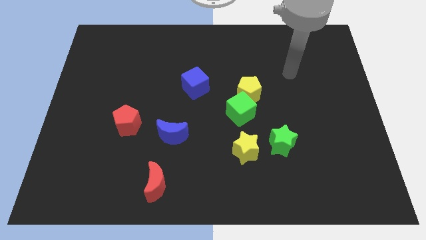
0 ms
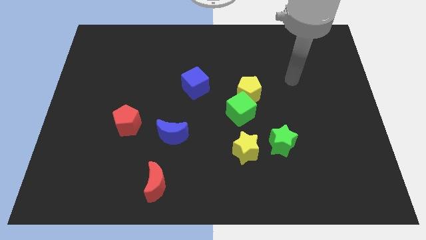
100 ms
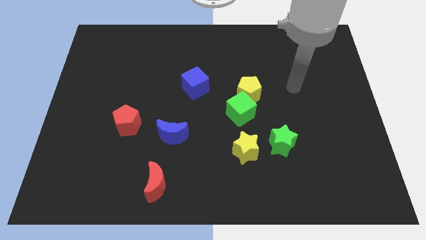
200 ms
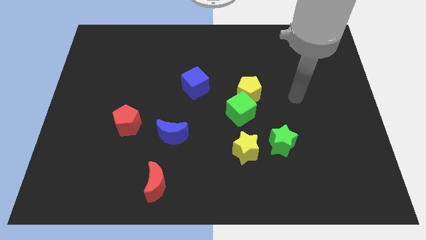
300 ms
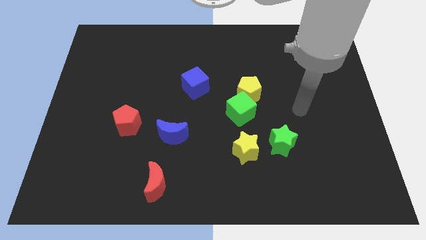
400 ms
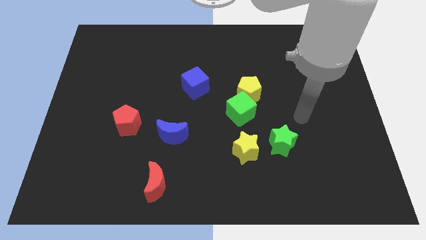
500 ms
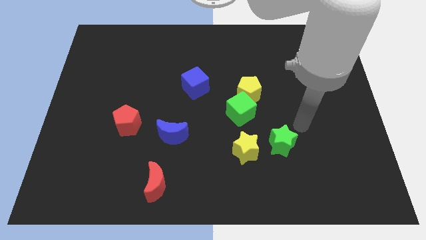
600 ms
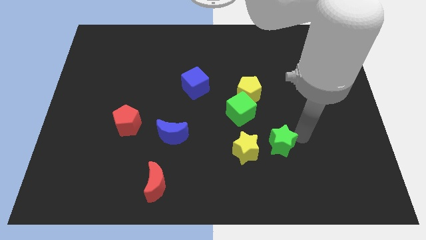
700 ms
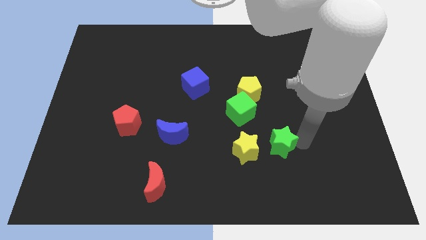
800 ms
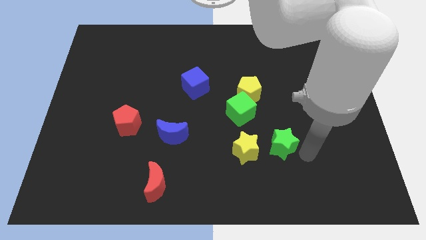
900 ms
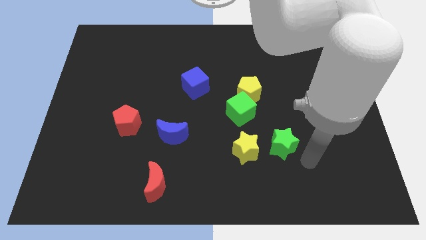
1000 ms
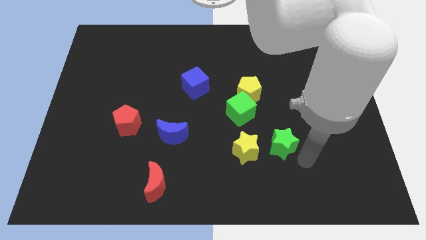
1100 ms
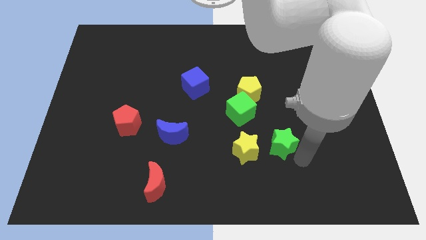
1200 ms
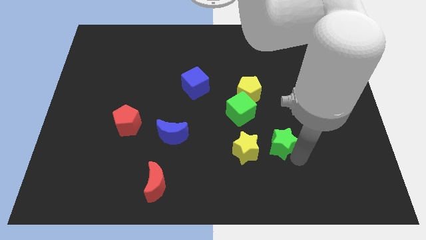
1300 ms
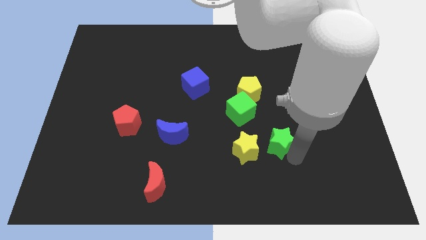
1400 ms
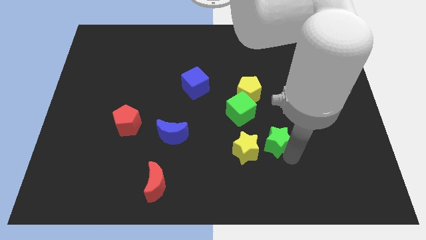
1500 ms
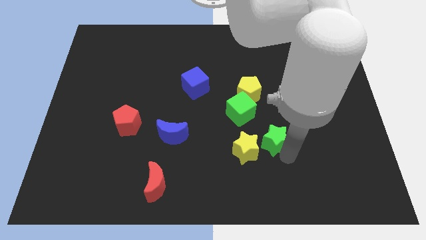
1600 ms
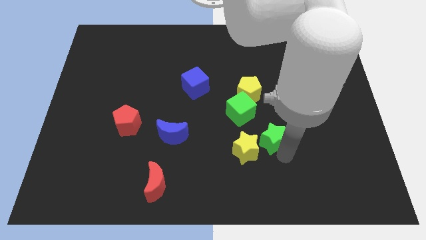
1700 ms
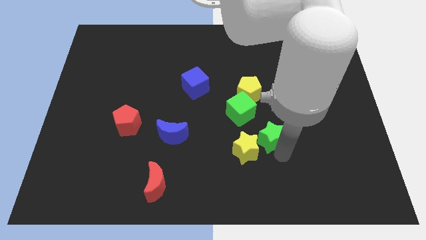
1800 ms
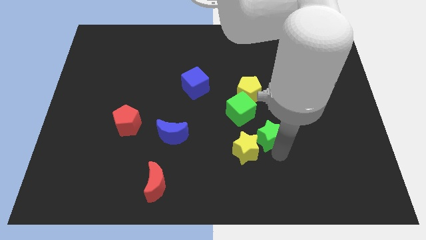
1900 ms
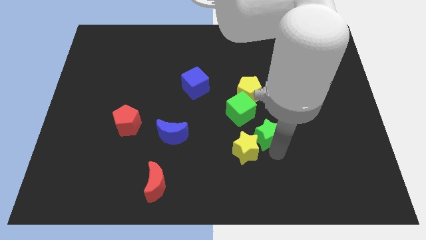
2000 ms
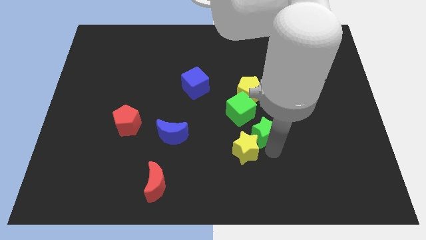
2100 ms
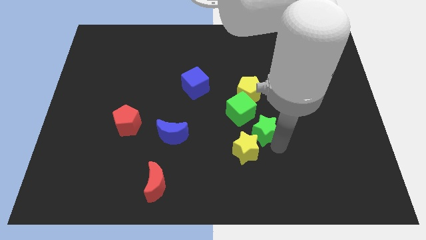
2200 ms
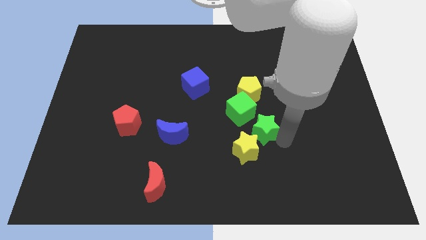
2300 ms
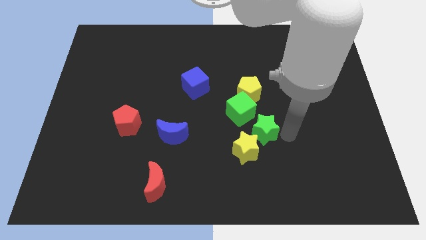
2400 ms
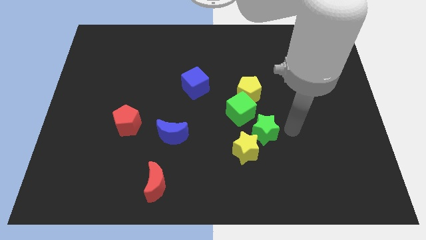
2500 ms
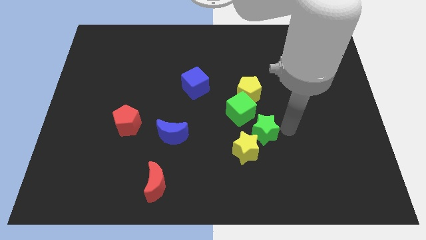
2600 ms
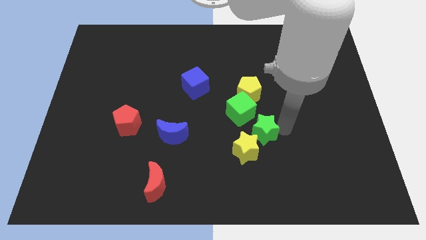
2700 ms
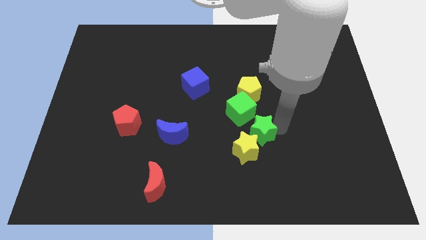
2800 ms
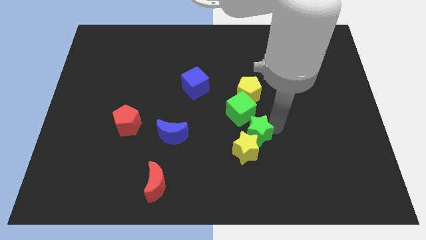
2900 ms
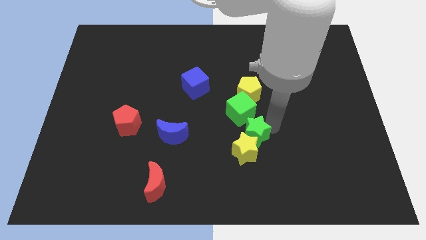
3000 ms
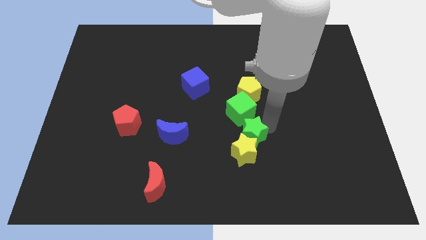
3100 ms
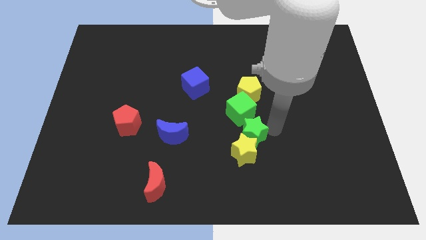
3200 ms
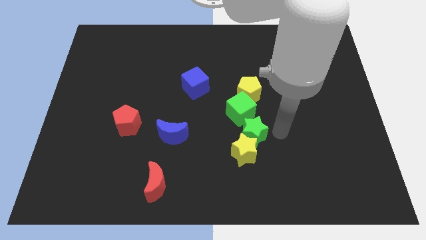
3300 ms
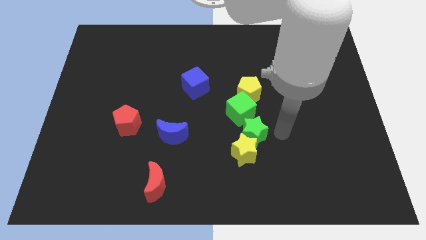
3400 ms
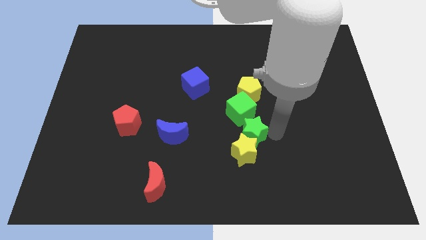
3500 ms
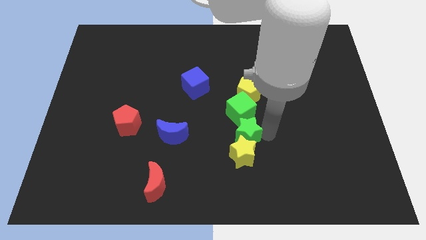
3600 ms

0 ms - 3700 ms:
move the green star to the left a little bit

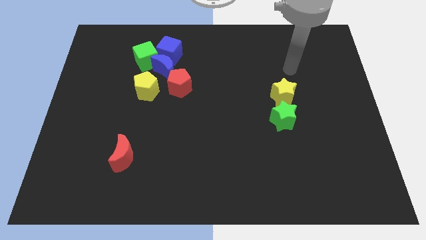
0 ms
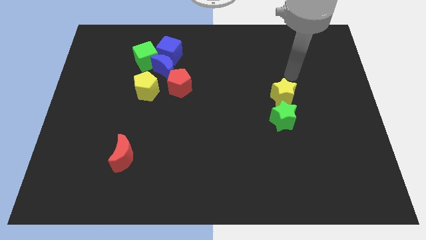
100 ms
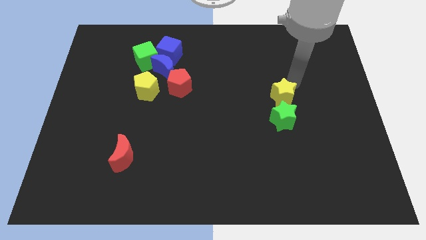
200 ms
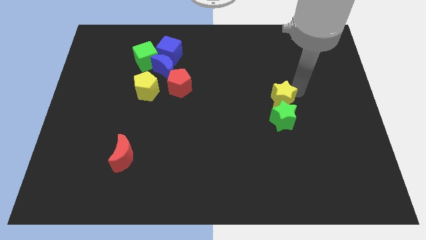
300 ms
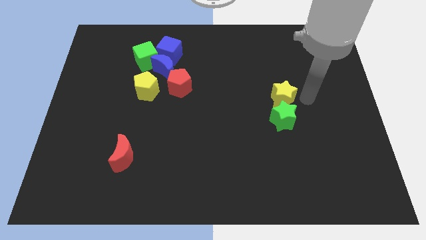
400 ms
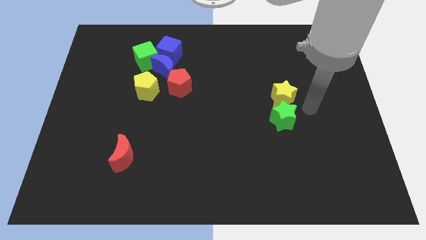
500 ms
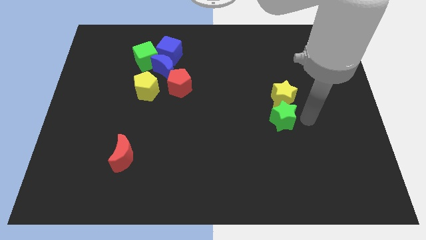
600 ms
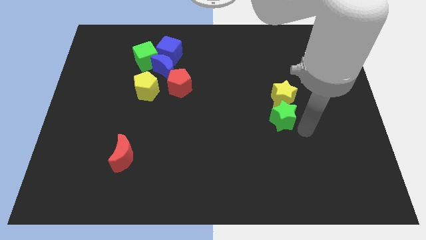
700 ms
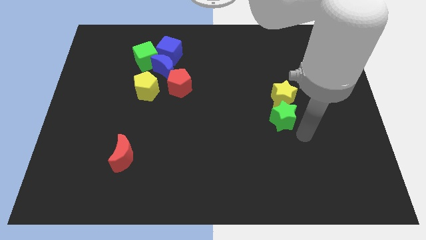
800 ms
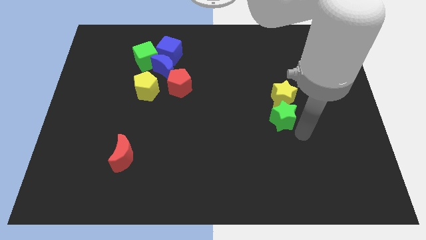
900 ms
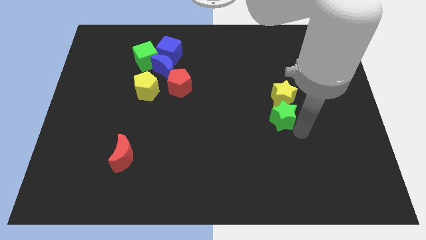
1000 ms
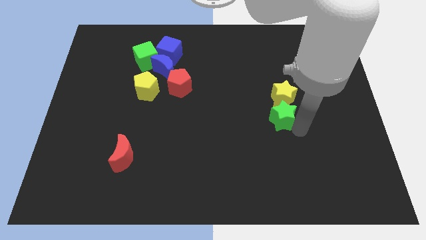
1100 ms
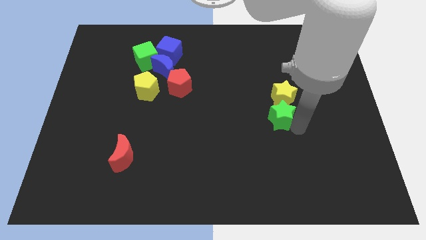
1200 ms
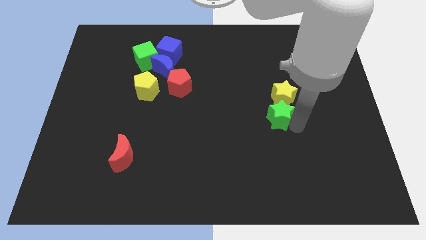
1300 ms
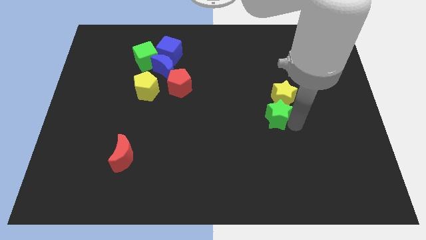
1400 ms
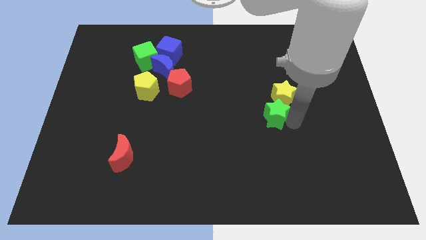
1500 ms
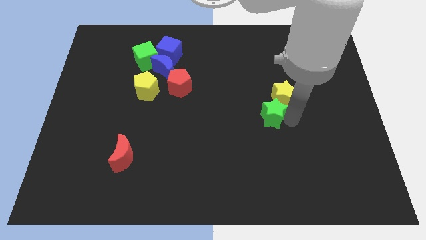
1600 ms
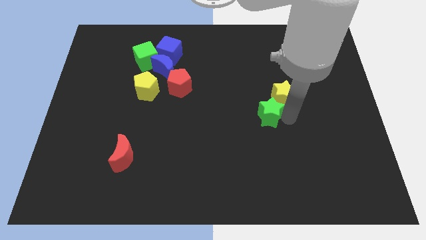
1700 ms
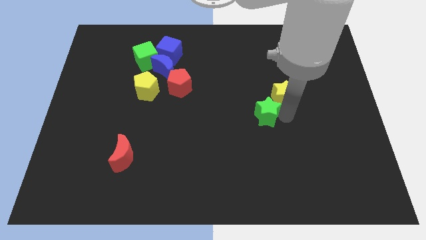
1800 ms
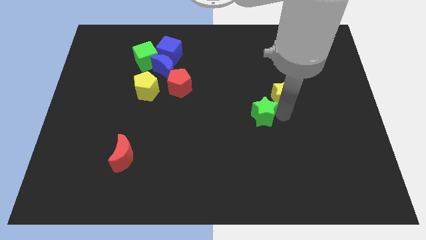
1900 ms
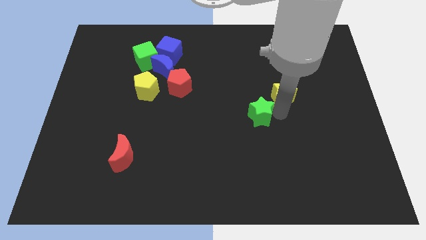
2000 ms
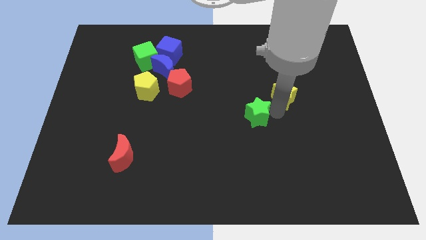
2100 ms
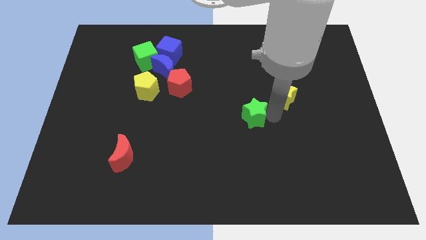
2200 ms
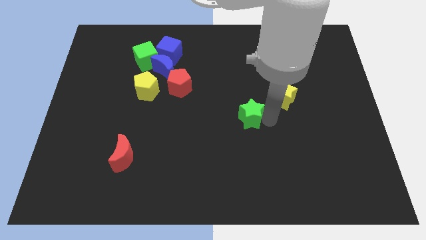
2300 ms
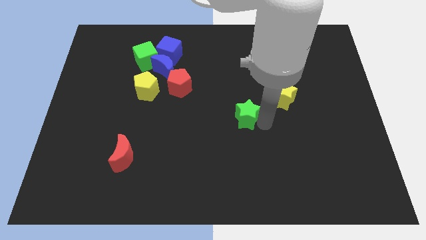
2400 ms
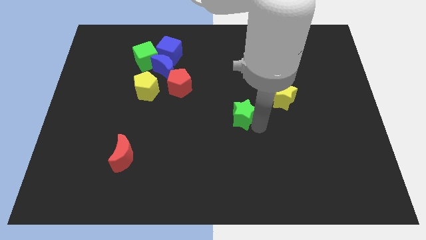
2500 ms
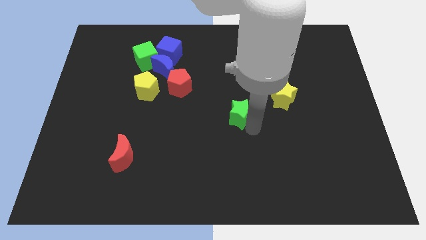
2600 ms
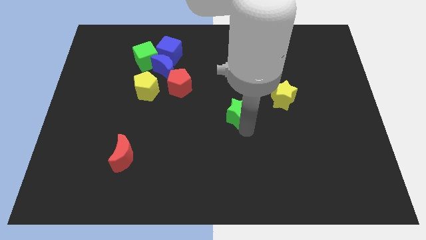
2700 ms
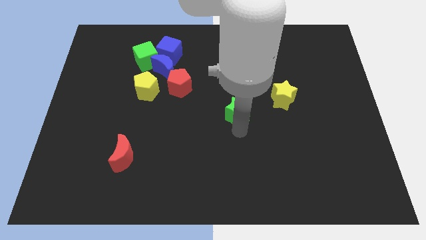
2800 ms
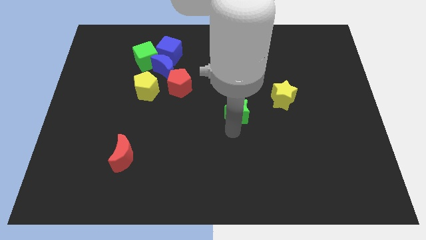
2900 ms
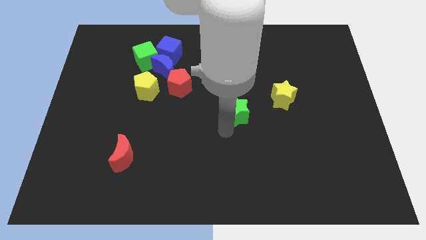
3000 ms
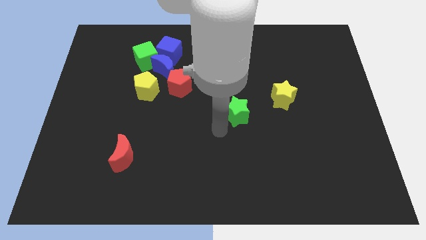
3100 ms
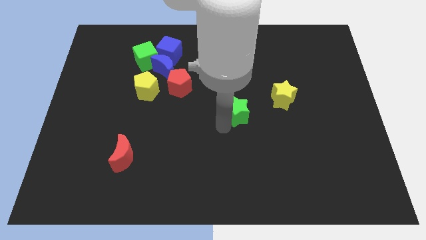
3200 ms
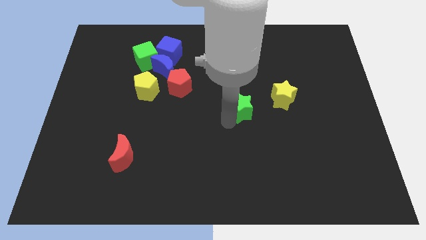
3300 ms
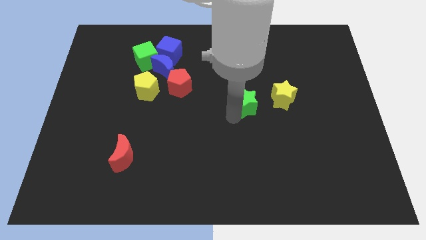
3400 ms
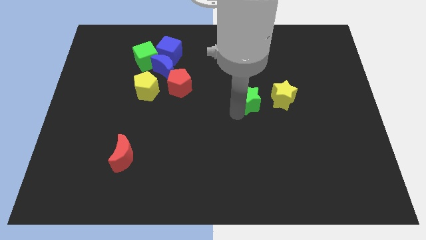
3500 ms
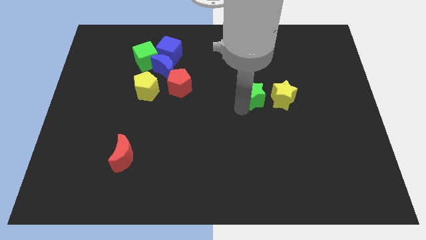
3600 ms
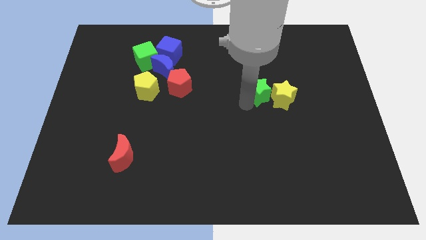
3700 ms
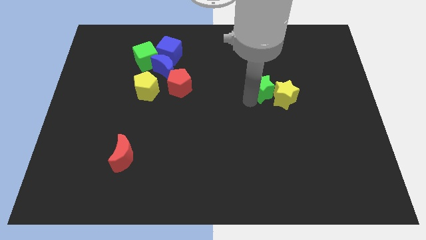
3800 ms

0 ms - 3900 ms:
push the green star a bit up

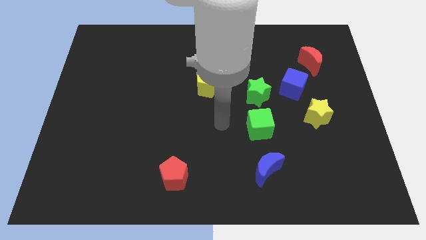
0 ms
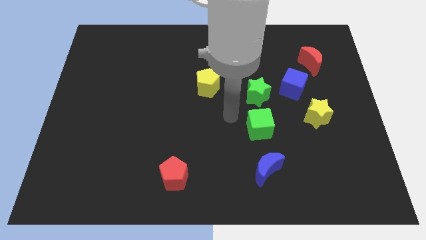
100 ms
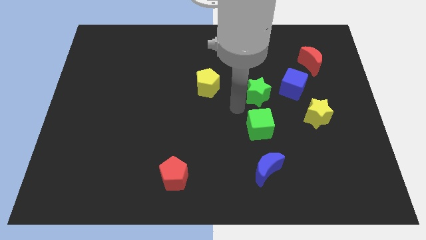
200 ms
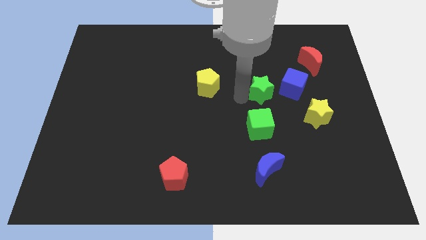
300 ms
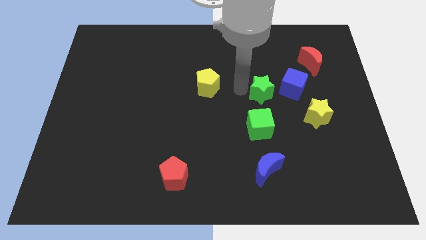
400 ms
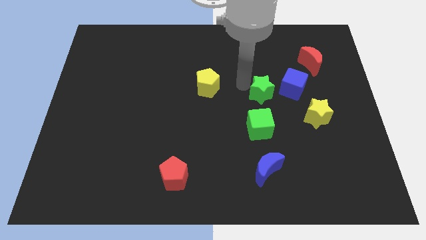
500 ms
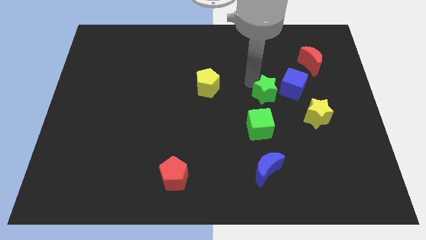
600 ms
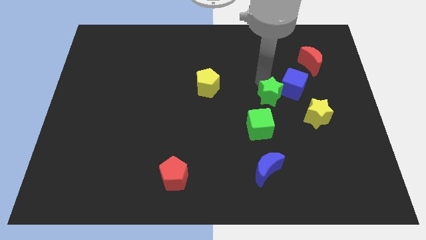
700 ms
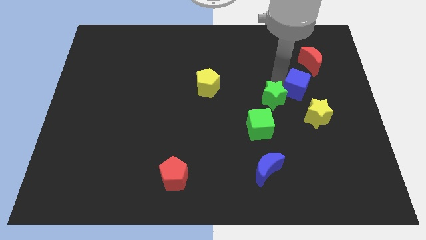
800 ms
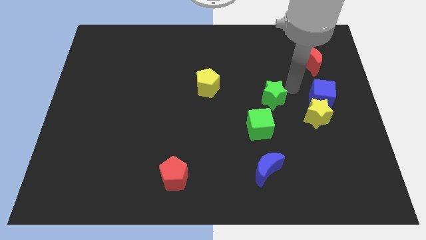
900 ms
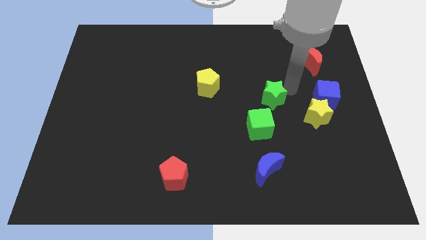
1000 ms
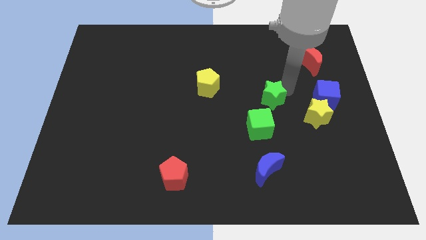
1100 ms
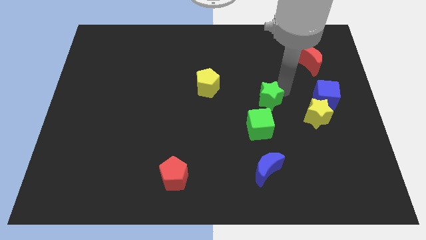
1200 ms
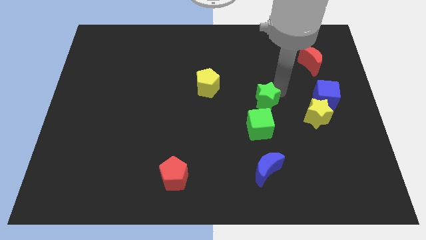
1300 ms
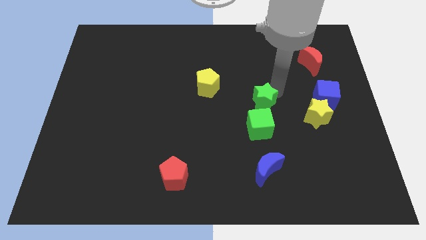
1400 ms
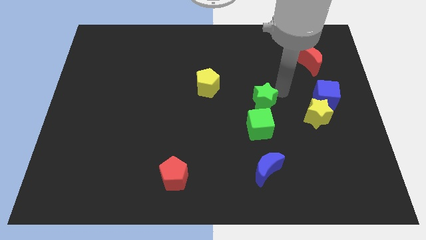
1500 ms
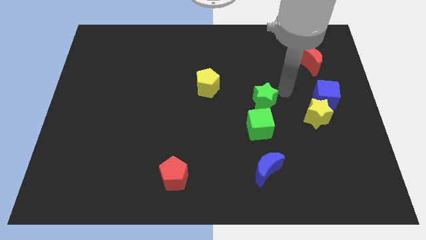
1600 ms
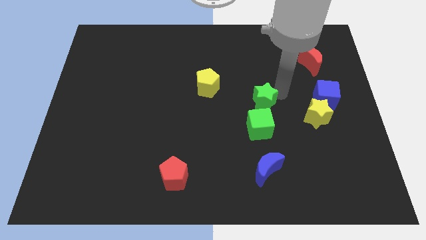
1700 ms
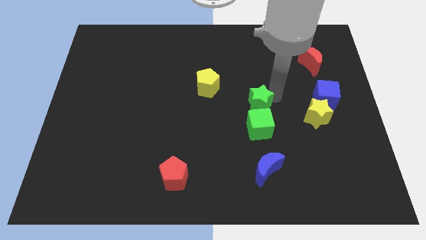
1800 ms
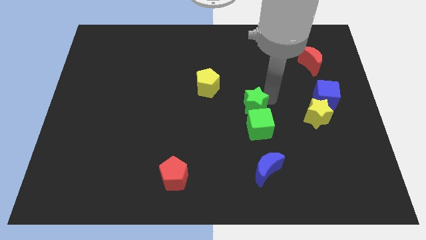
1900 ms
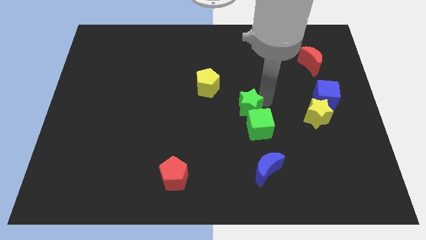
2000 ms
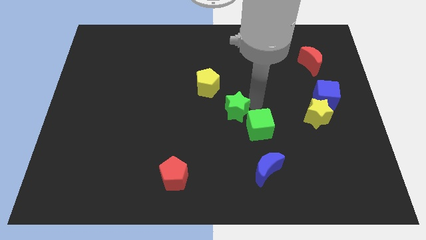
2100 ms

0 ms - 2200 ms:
slightly push the green star down and left diagonally
